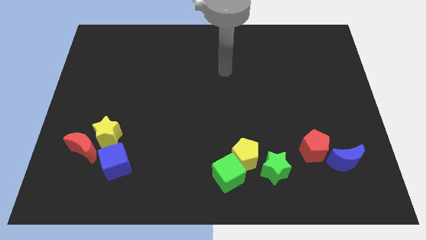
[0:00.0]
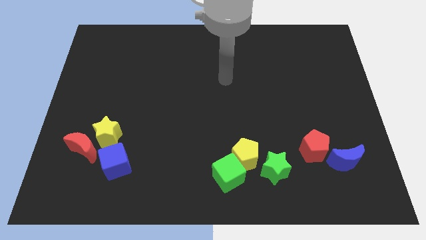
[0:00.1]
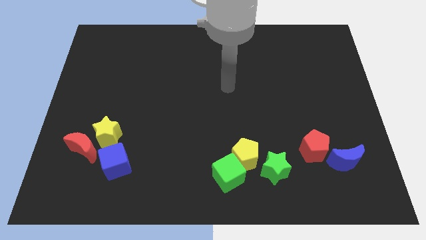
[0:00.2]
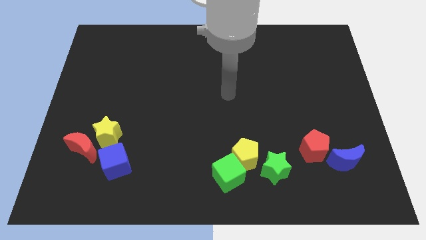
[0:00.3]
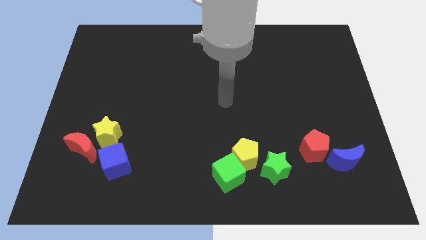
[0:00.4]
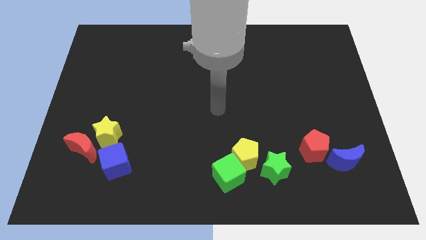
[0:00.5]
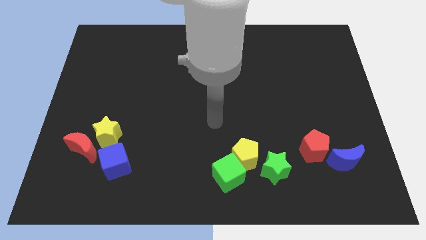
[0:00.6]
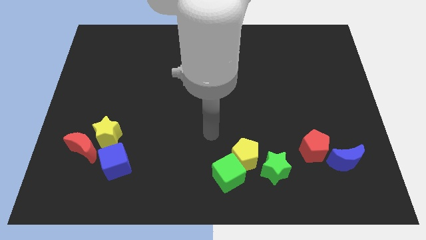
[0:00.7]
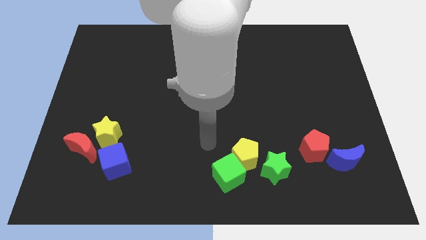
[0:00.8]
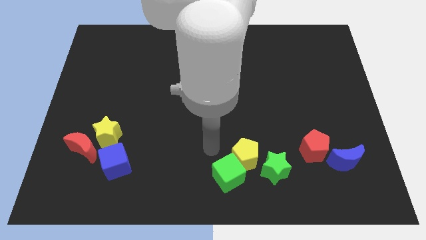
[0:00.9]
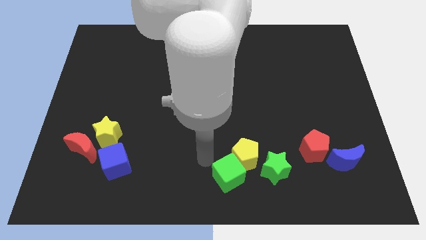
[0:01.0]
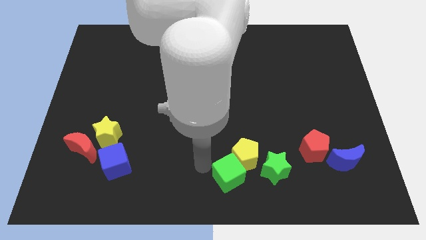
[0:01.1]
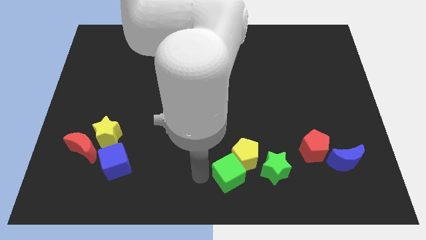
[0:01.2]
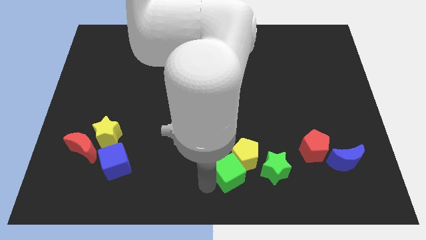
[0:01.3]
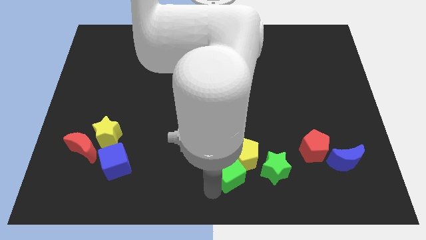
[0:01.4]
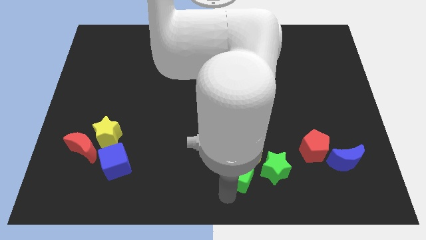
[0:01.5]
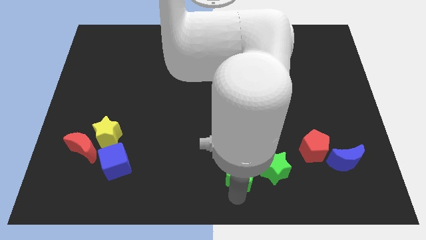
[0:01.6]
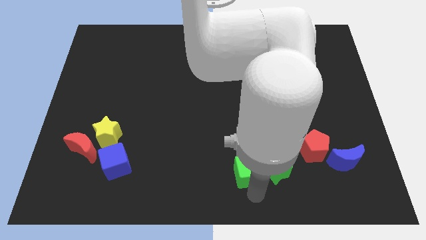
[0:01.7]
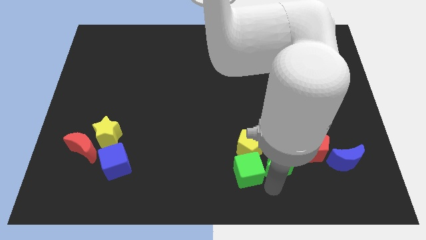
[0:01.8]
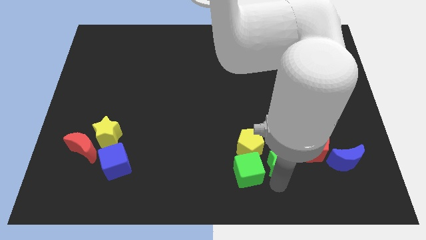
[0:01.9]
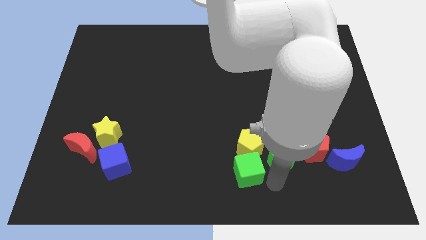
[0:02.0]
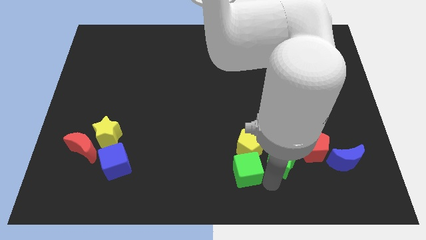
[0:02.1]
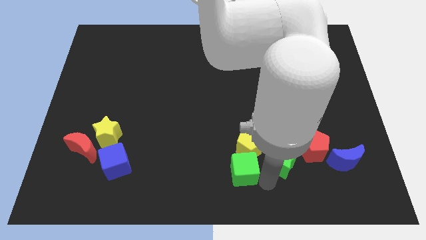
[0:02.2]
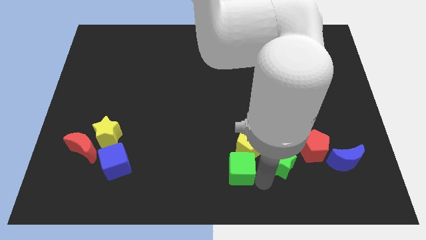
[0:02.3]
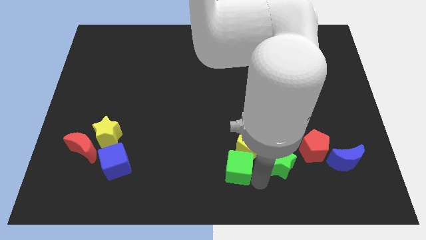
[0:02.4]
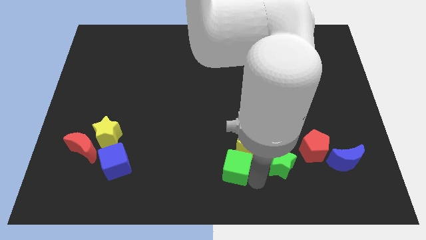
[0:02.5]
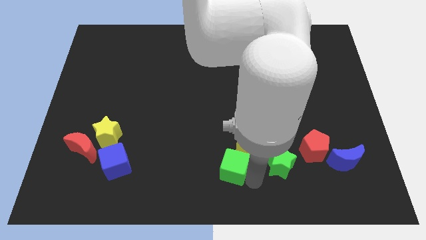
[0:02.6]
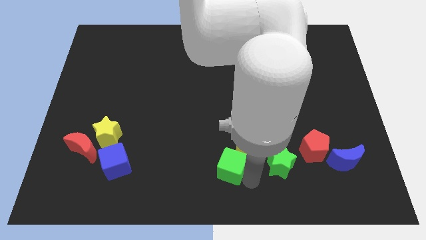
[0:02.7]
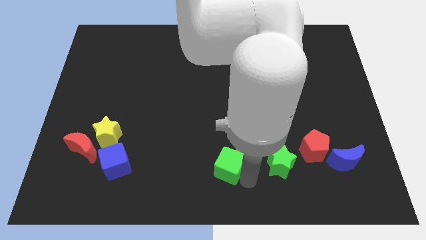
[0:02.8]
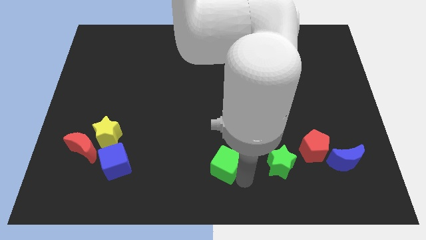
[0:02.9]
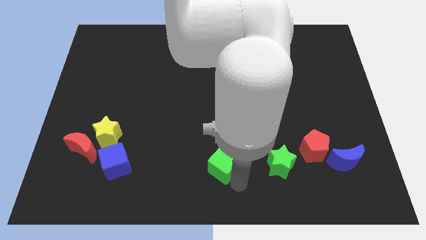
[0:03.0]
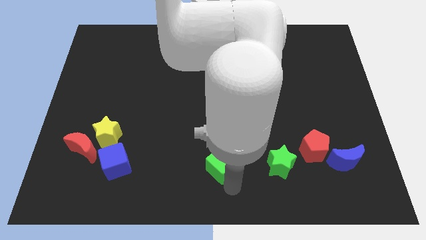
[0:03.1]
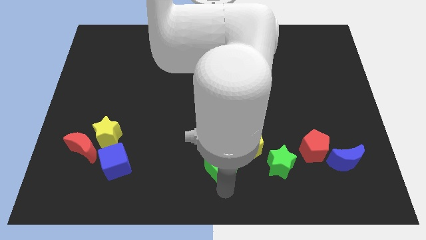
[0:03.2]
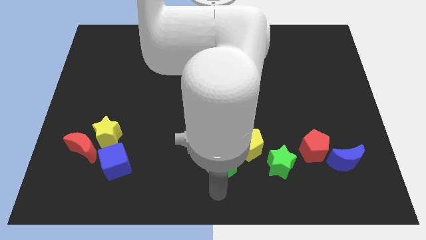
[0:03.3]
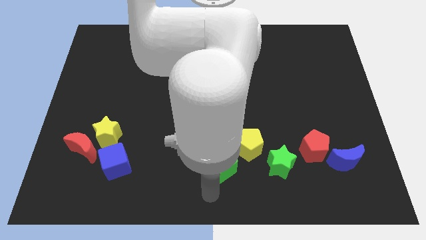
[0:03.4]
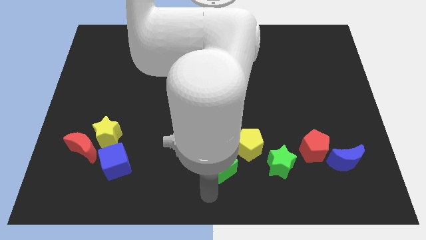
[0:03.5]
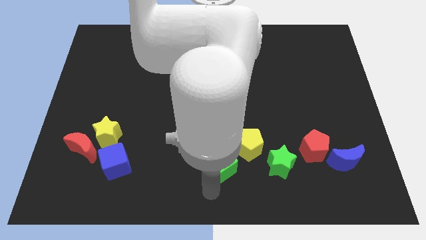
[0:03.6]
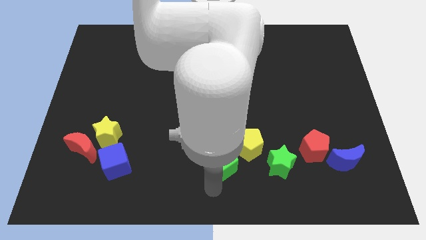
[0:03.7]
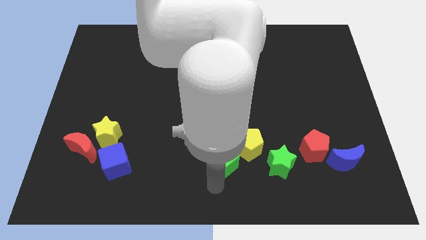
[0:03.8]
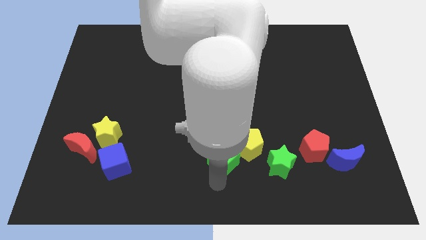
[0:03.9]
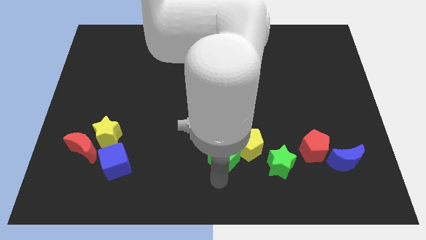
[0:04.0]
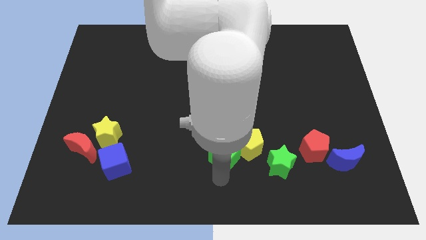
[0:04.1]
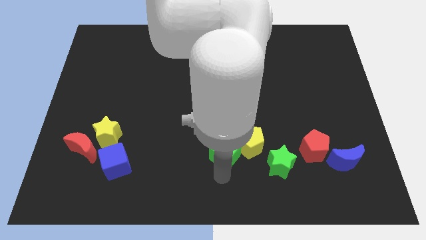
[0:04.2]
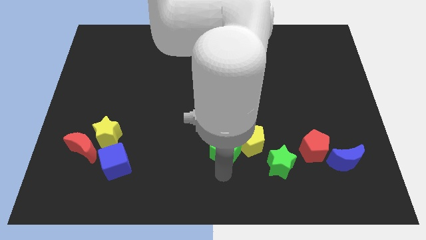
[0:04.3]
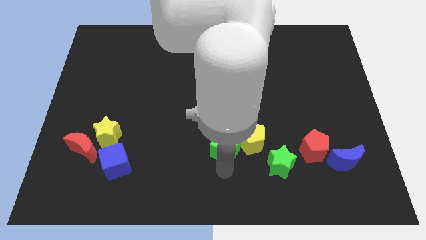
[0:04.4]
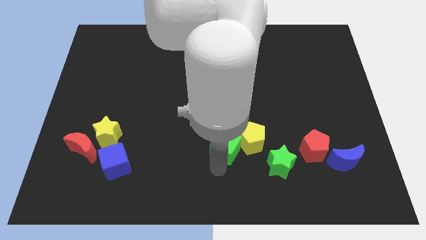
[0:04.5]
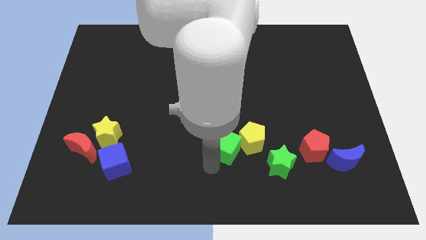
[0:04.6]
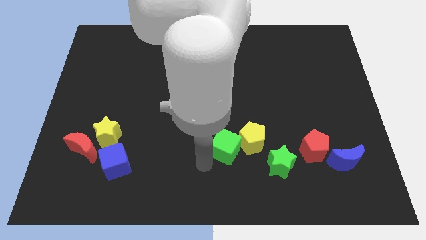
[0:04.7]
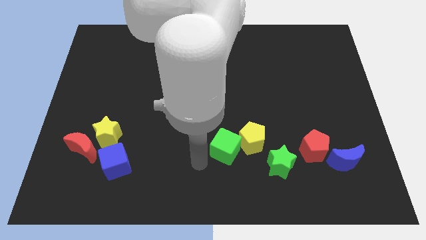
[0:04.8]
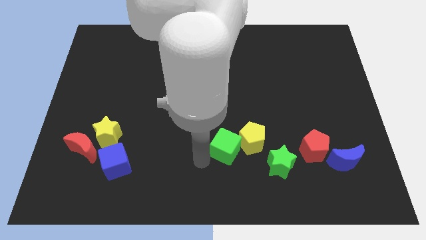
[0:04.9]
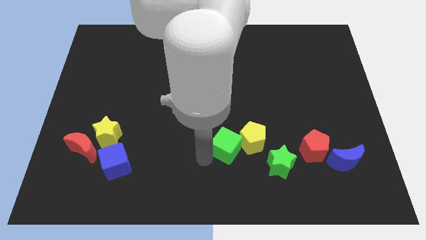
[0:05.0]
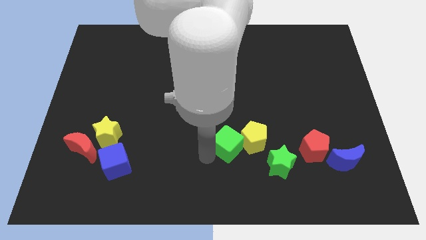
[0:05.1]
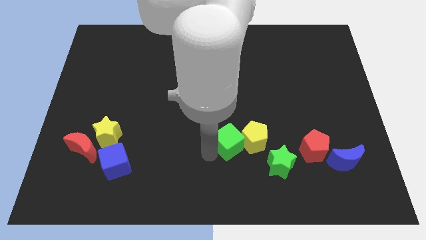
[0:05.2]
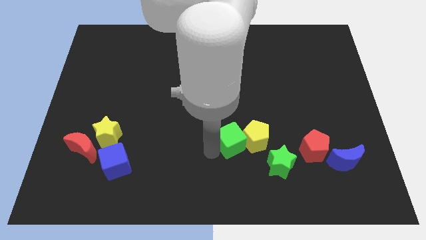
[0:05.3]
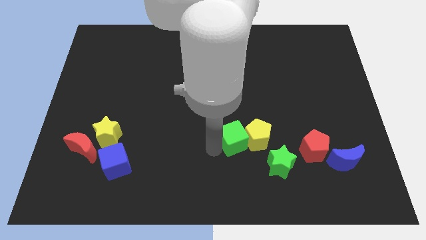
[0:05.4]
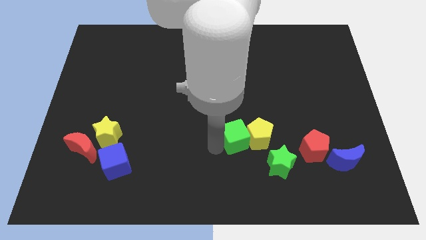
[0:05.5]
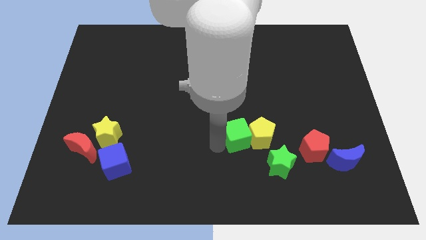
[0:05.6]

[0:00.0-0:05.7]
move the green cube a little bit upwards and then to the right

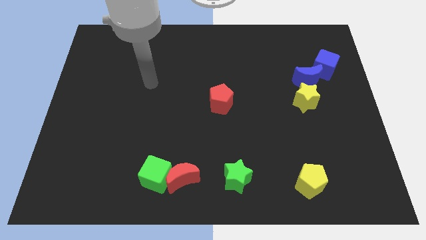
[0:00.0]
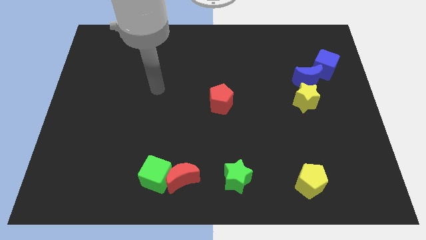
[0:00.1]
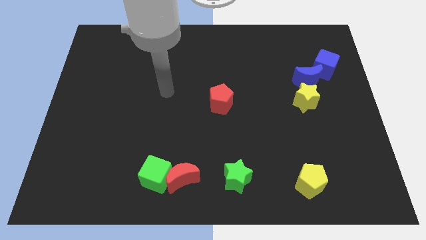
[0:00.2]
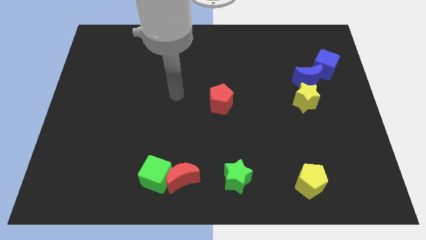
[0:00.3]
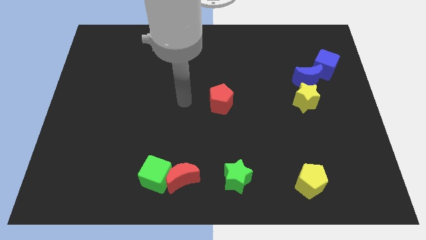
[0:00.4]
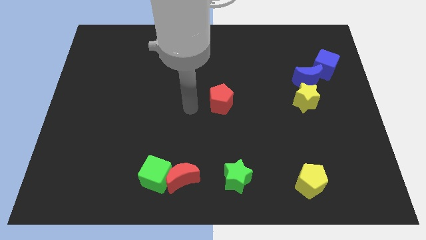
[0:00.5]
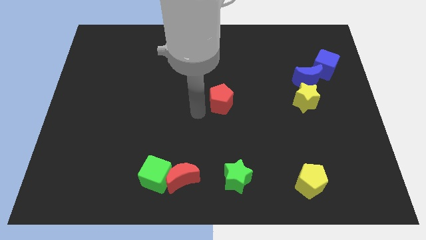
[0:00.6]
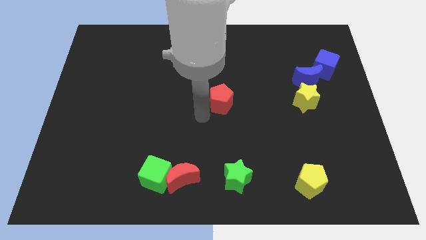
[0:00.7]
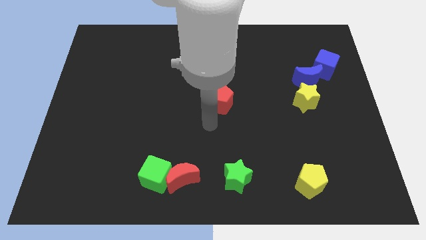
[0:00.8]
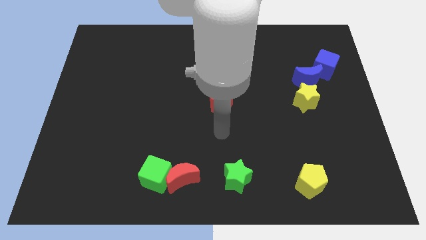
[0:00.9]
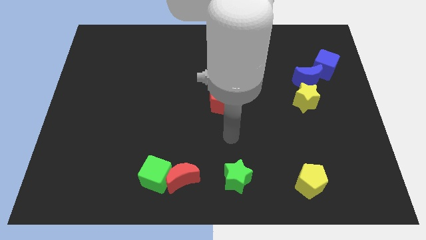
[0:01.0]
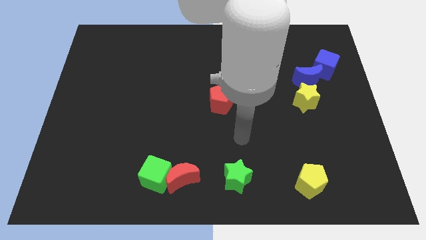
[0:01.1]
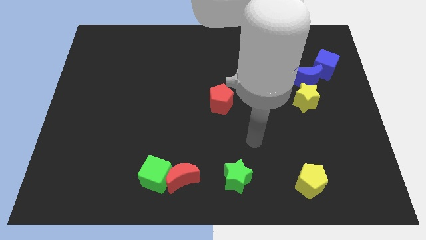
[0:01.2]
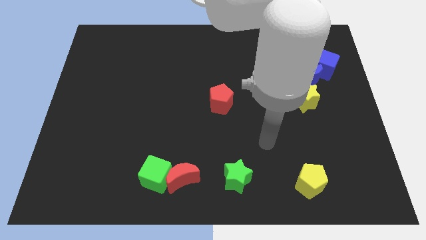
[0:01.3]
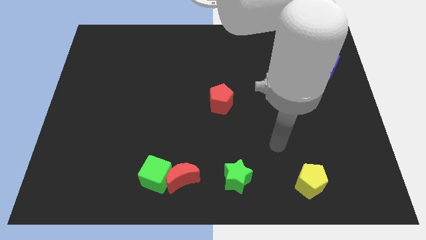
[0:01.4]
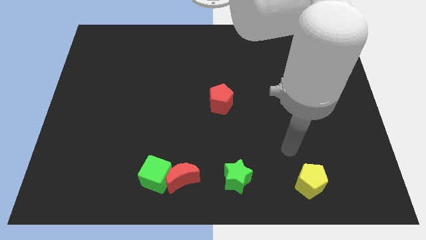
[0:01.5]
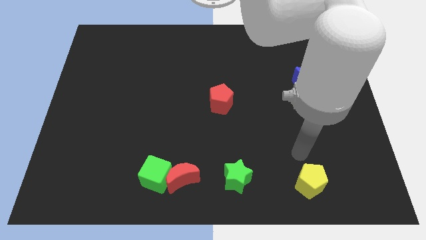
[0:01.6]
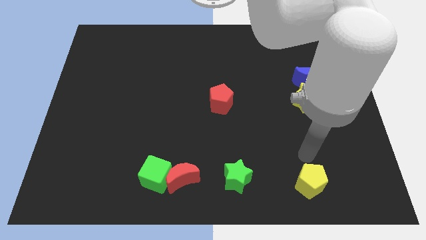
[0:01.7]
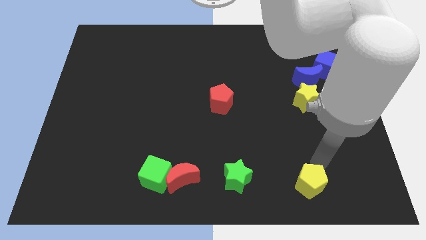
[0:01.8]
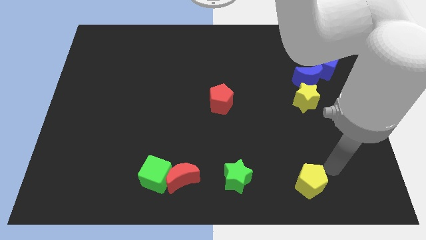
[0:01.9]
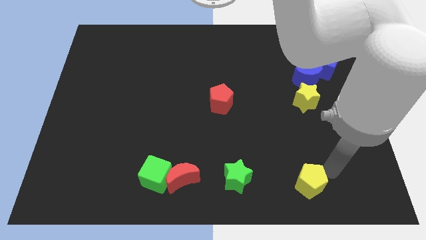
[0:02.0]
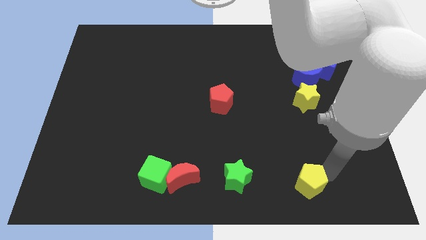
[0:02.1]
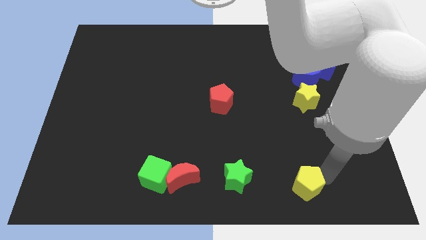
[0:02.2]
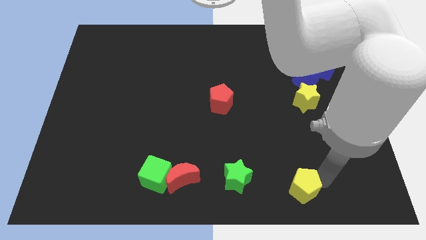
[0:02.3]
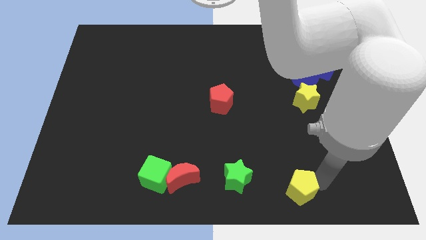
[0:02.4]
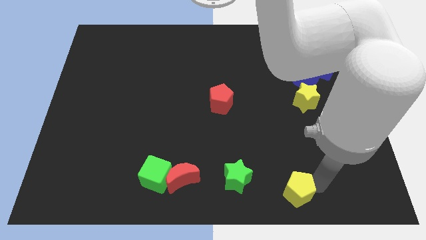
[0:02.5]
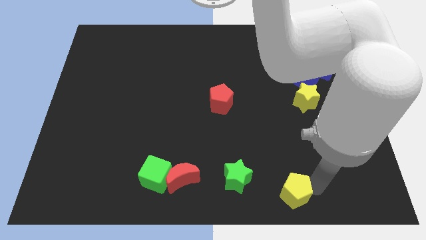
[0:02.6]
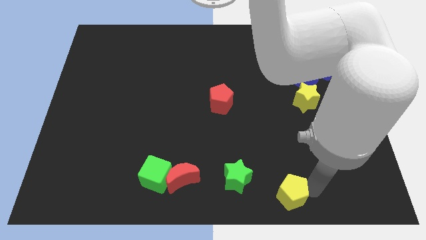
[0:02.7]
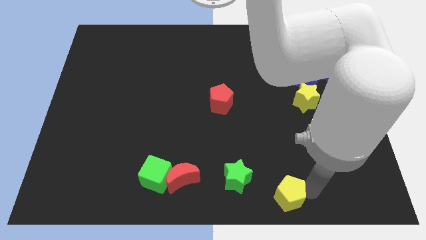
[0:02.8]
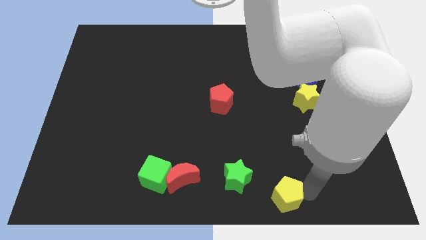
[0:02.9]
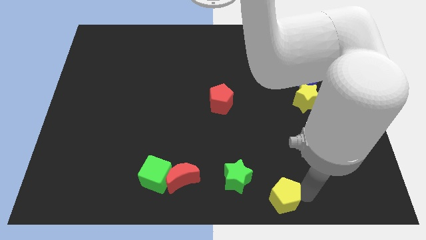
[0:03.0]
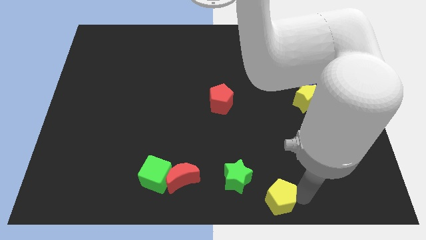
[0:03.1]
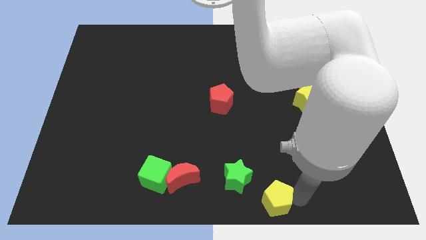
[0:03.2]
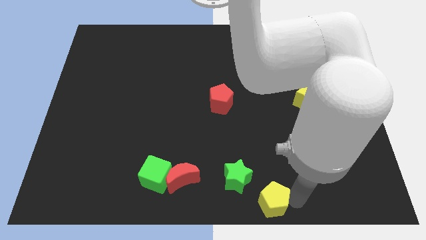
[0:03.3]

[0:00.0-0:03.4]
push the yellow pentagon a bit to the left
